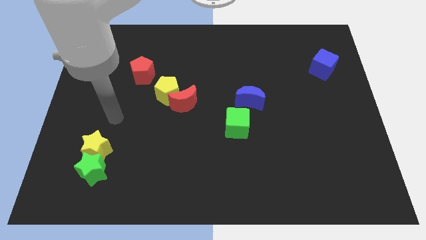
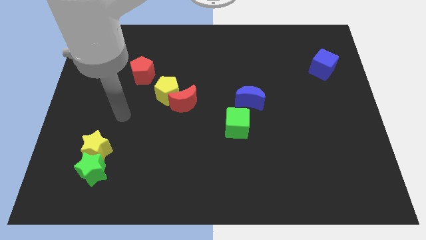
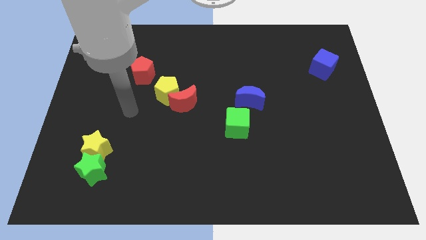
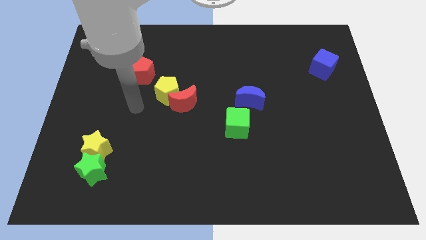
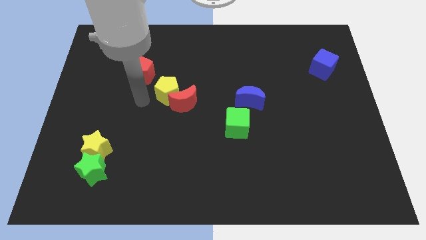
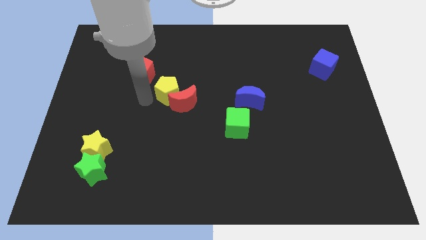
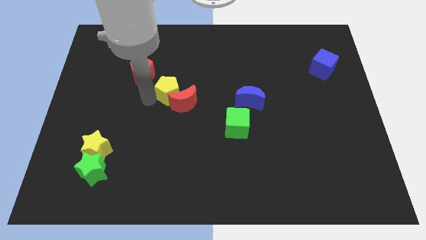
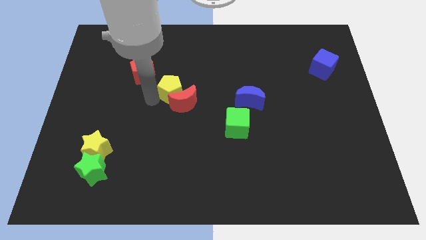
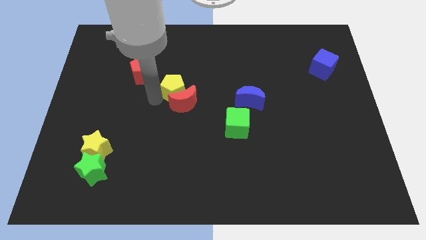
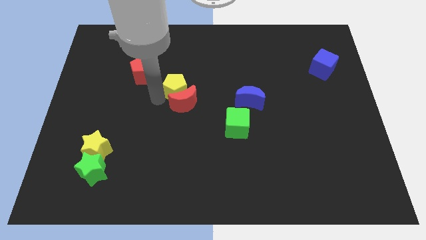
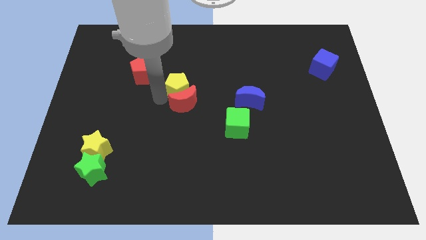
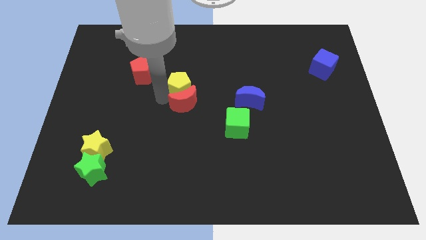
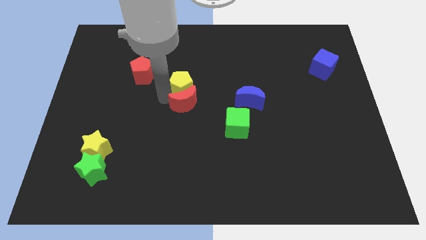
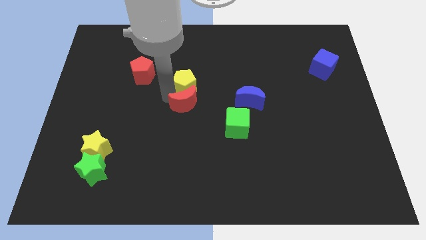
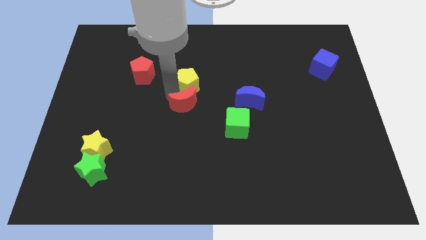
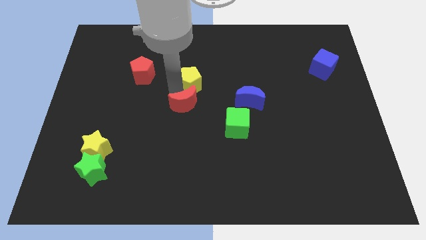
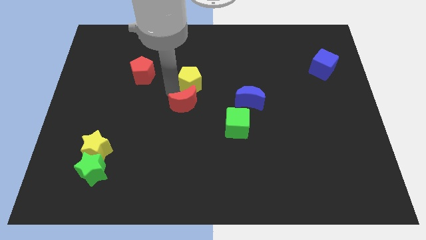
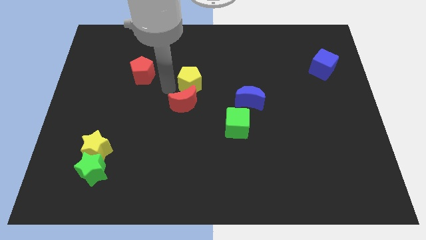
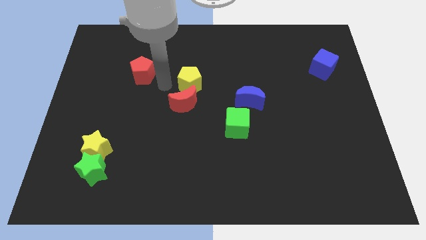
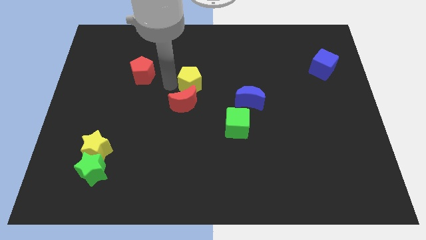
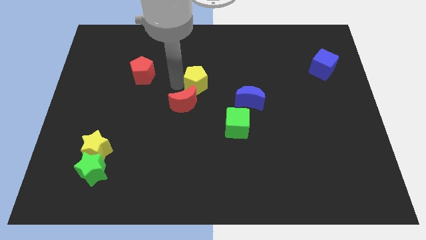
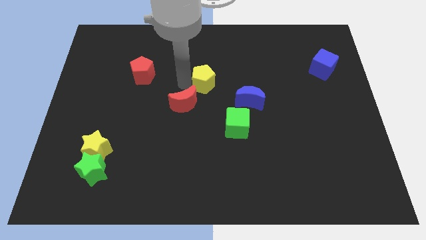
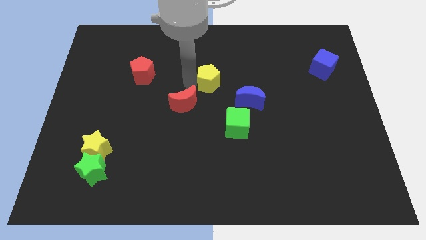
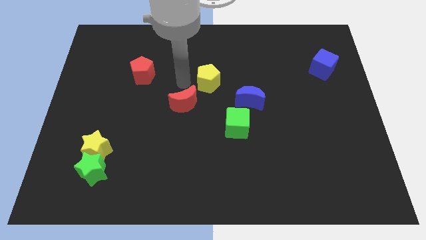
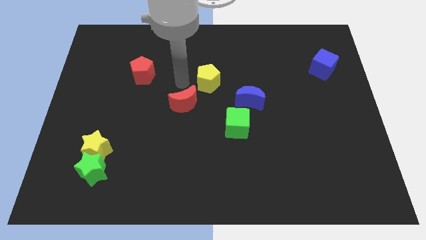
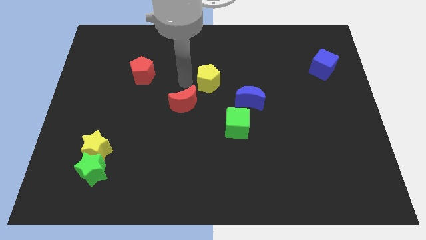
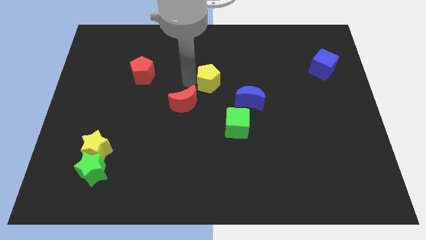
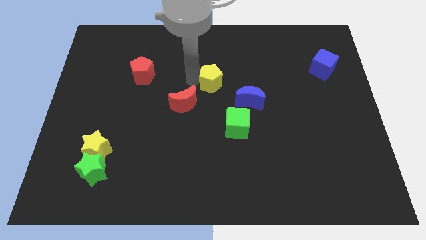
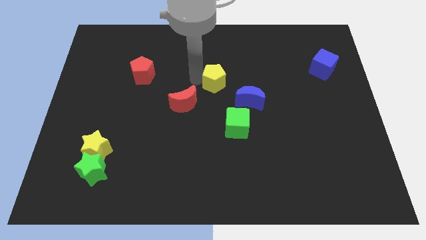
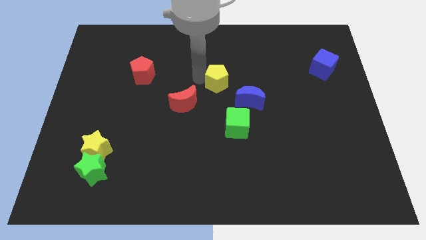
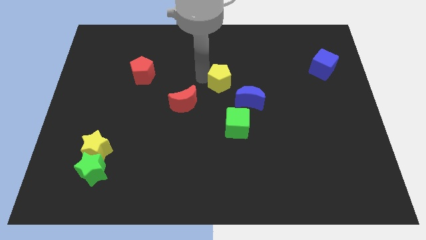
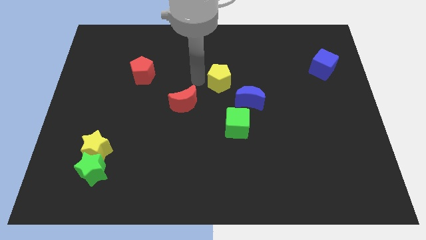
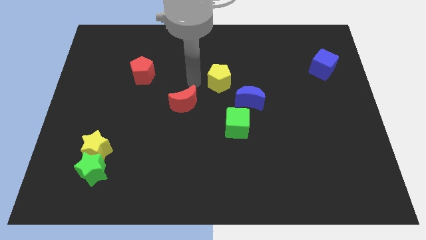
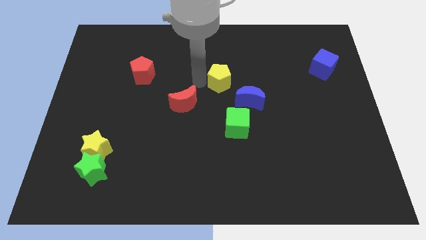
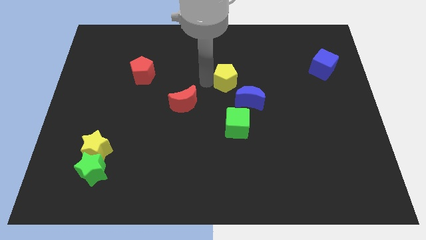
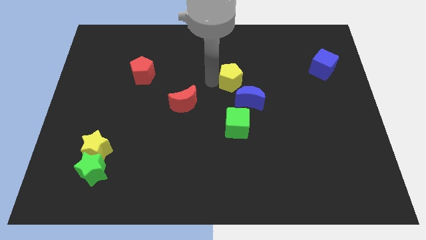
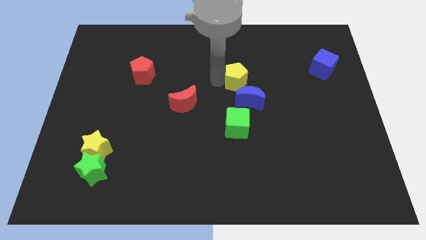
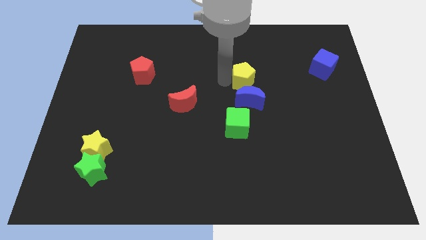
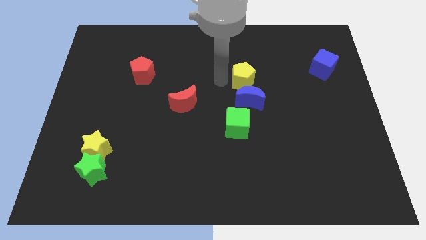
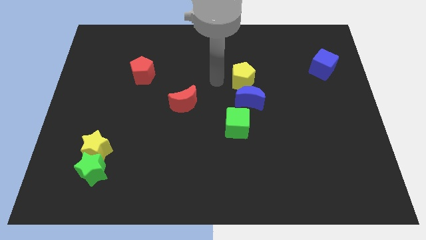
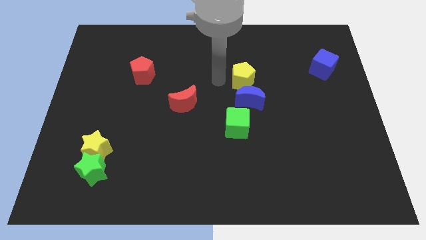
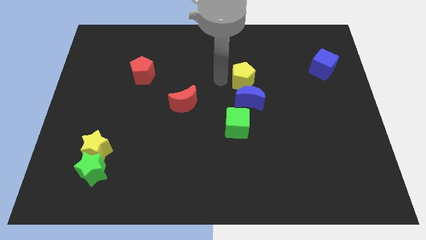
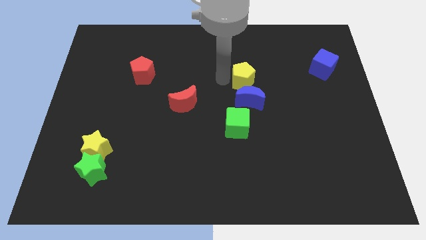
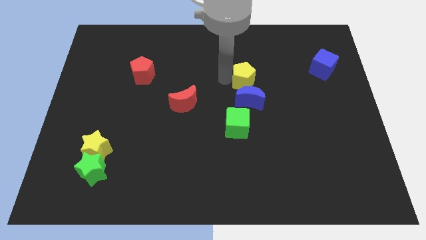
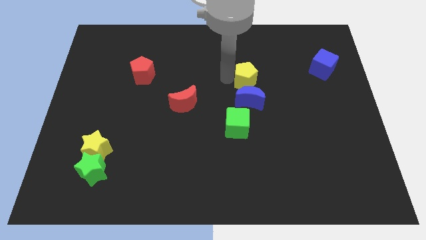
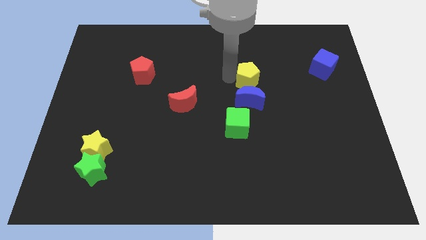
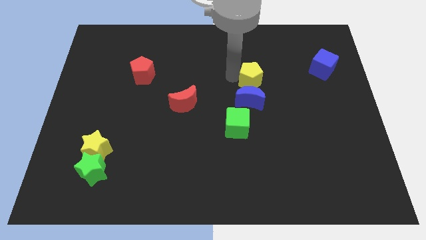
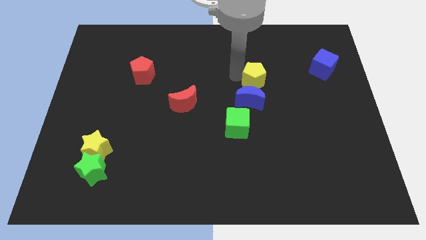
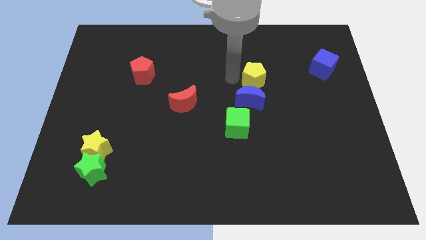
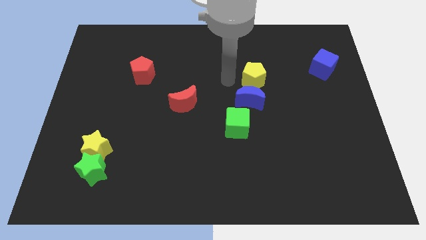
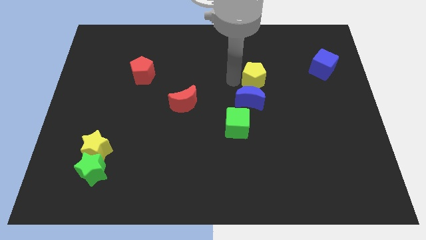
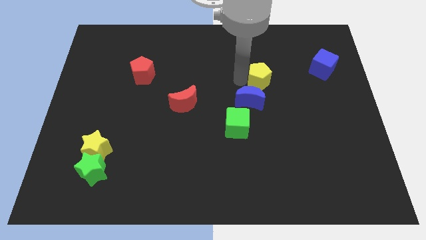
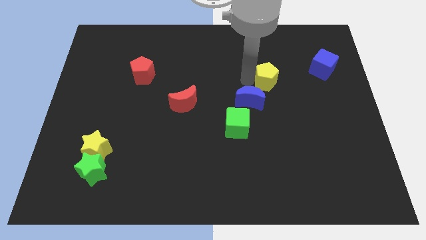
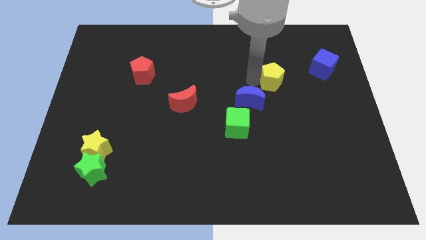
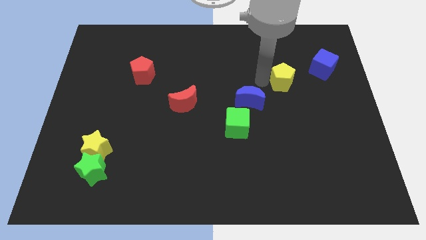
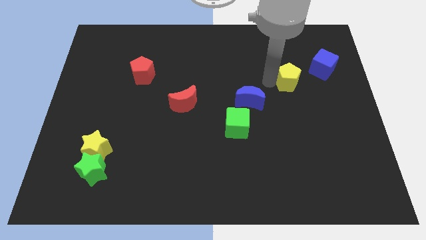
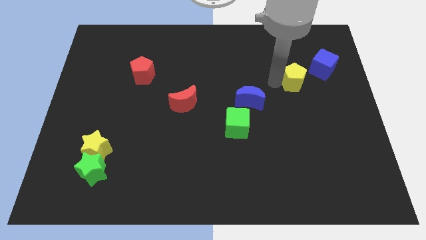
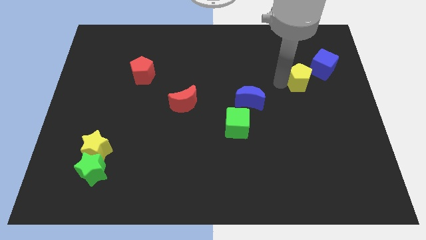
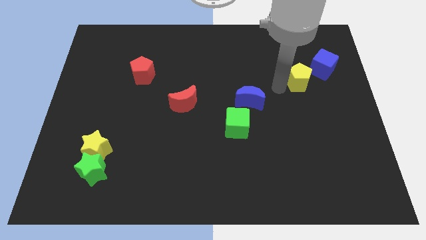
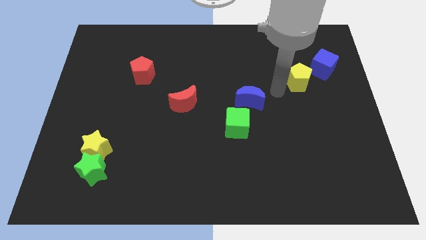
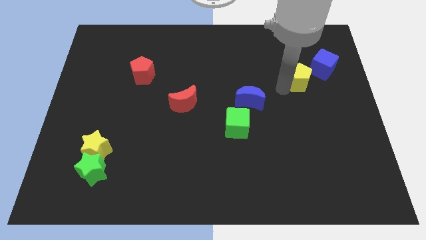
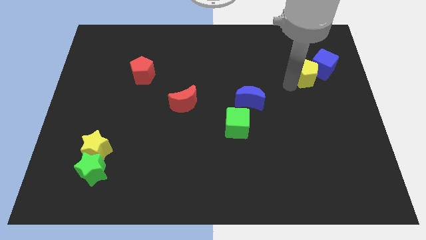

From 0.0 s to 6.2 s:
push the yellow pentagon next to the blue cube

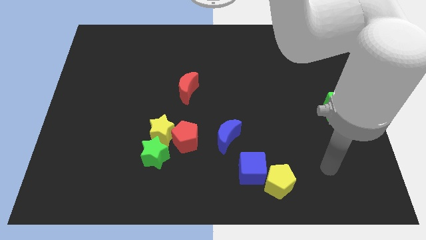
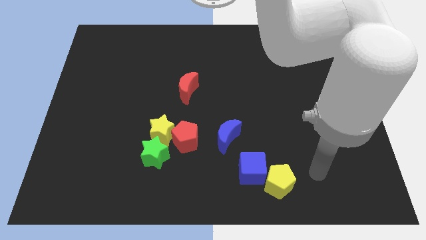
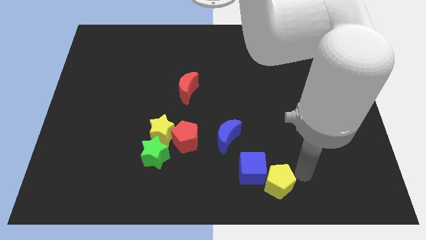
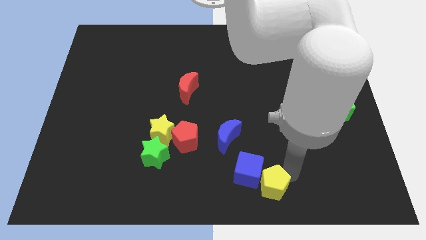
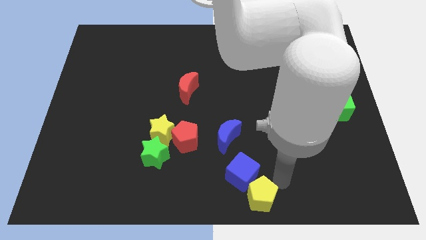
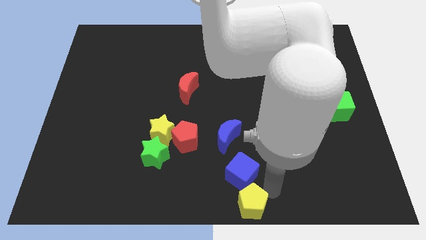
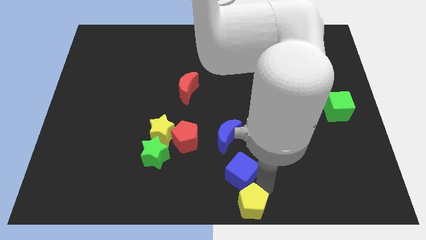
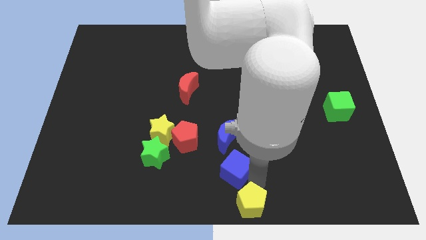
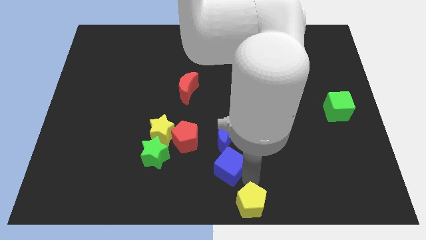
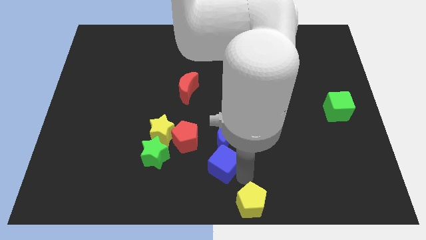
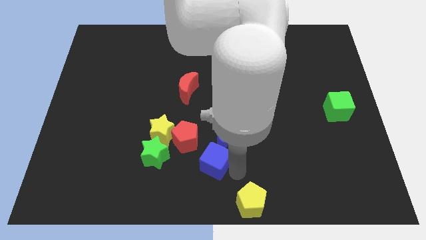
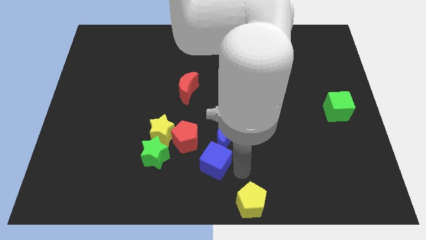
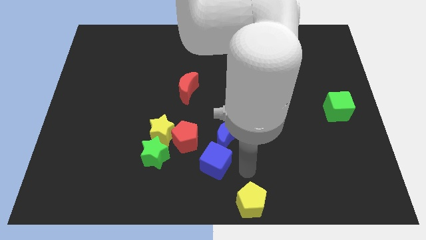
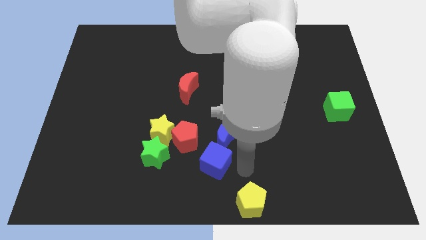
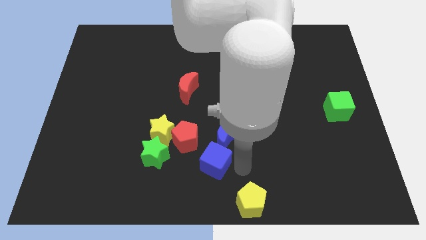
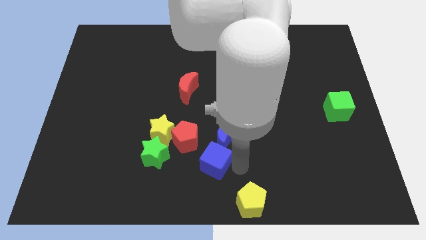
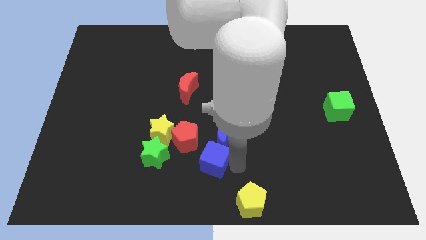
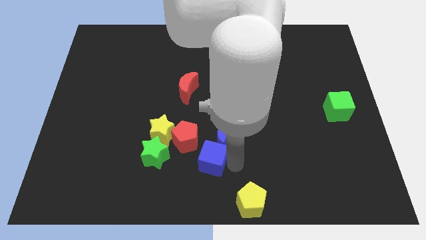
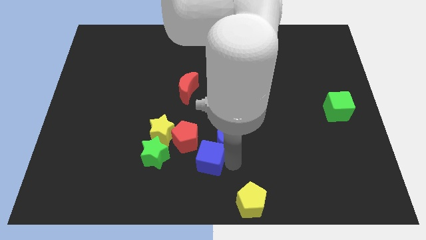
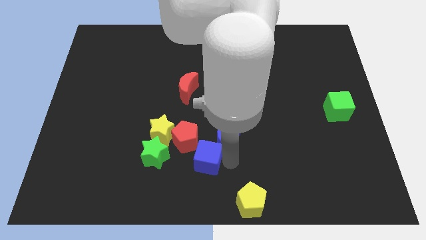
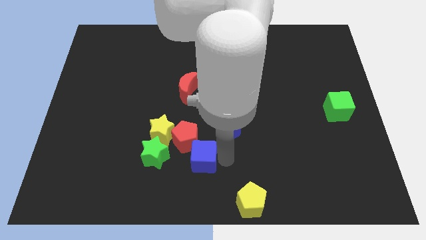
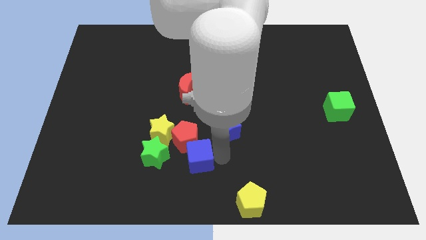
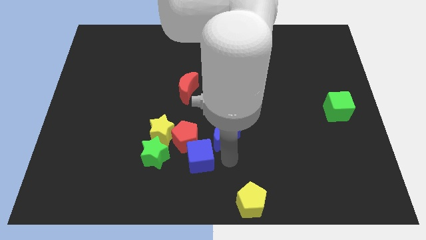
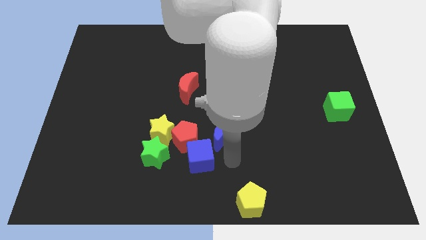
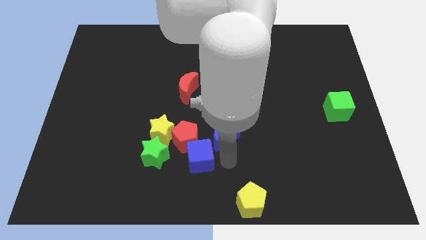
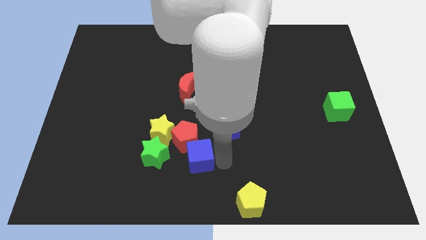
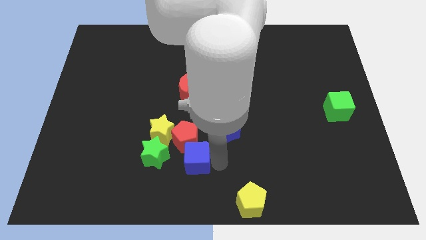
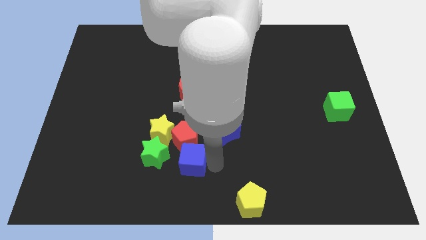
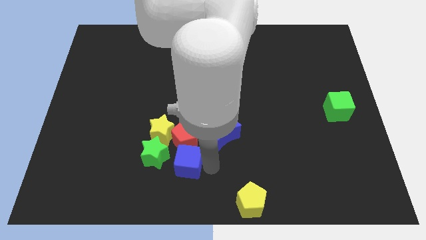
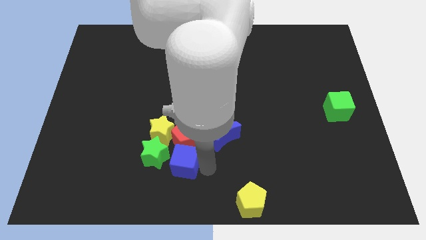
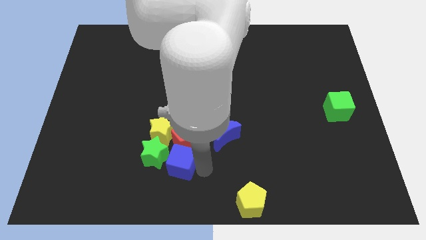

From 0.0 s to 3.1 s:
slide the blue cube close to the green star
